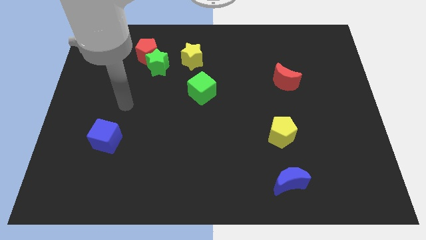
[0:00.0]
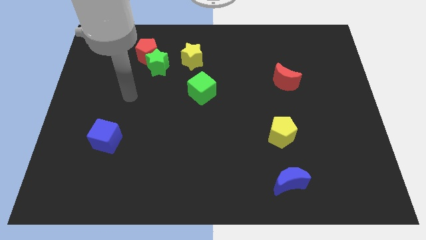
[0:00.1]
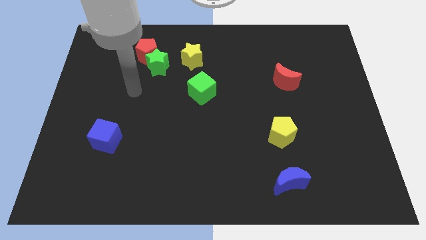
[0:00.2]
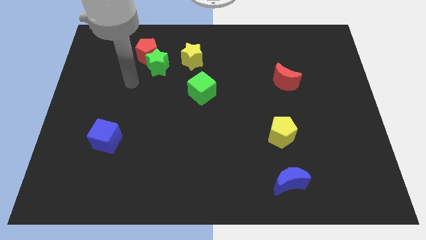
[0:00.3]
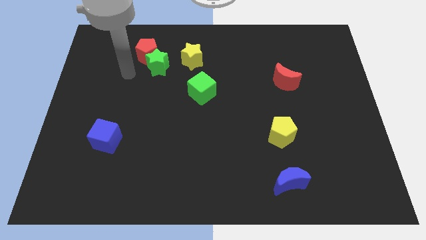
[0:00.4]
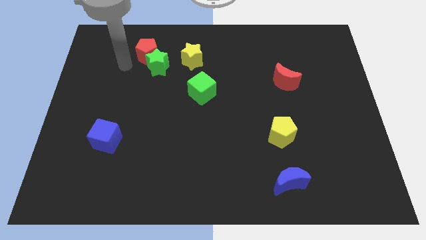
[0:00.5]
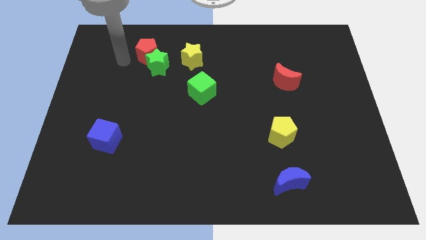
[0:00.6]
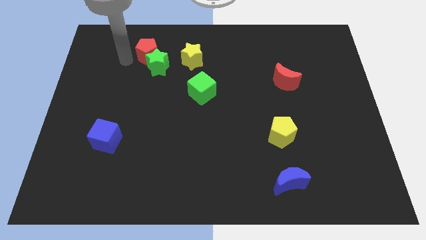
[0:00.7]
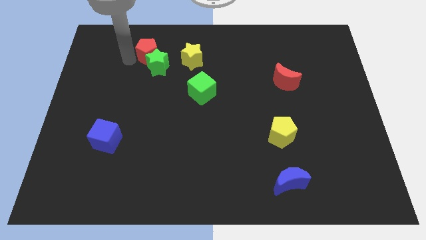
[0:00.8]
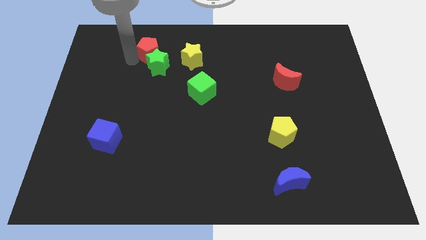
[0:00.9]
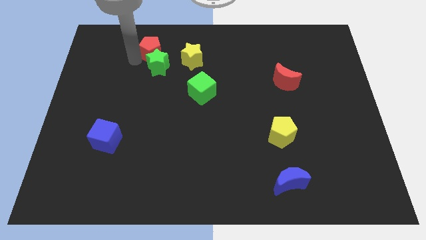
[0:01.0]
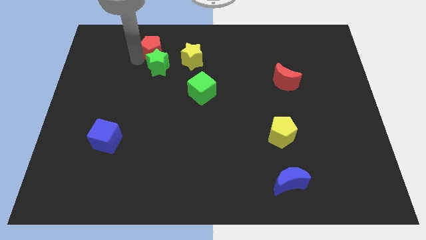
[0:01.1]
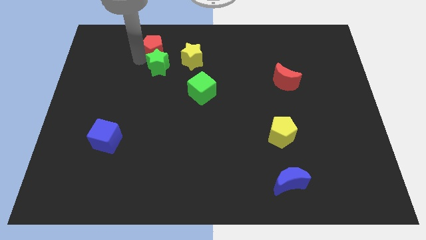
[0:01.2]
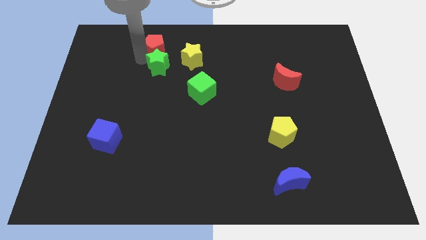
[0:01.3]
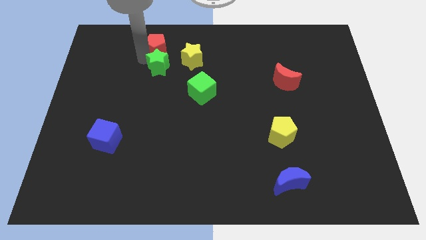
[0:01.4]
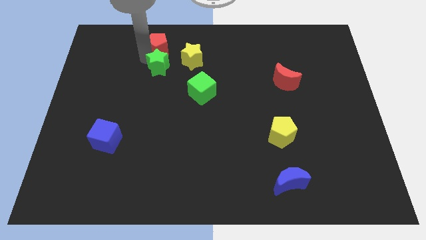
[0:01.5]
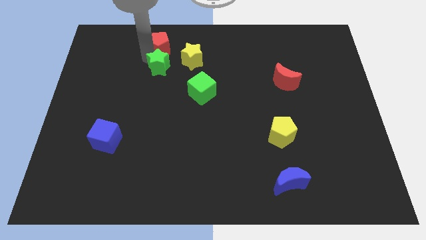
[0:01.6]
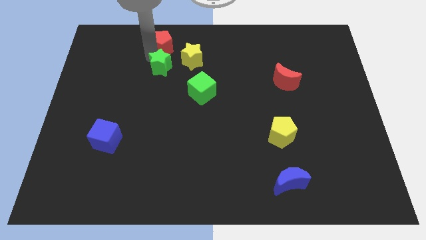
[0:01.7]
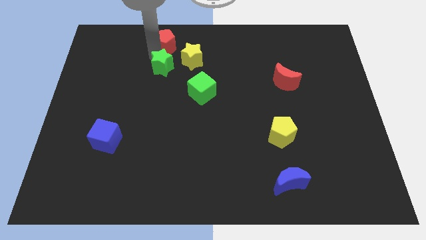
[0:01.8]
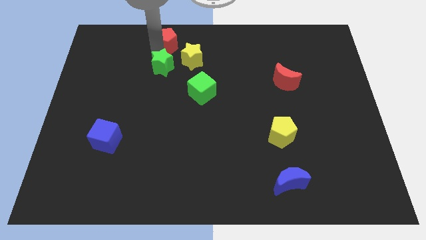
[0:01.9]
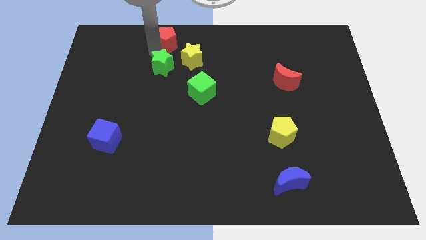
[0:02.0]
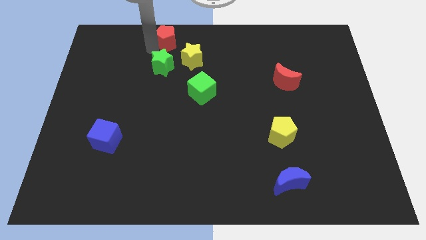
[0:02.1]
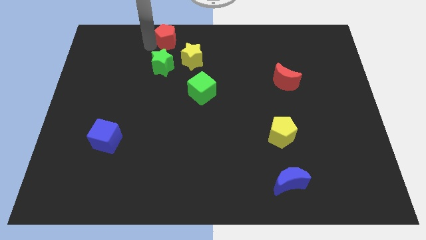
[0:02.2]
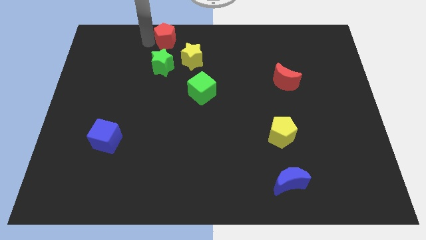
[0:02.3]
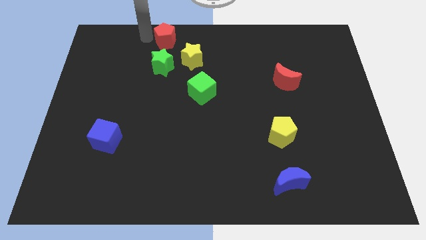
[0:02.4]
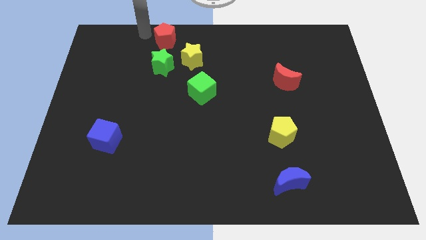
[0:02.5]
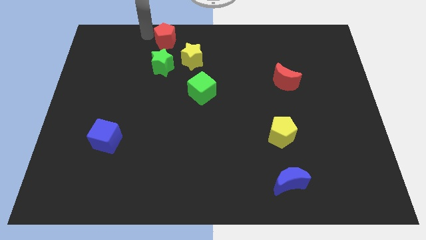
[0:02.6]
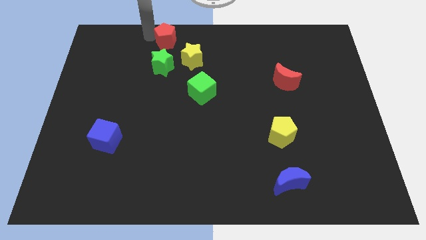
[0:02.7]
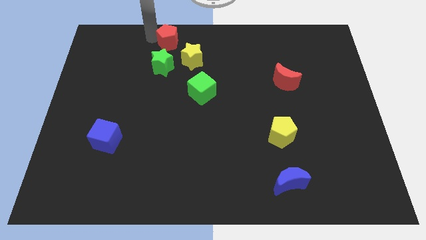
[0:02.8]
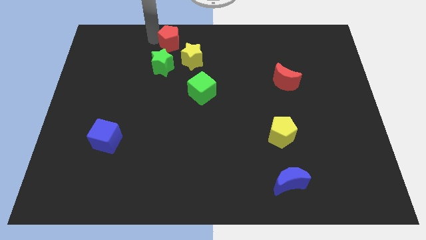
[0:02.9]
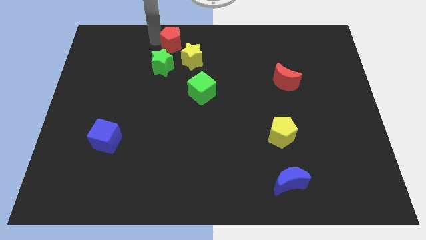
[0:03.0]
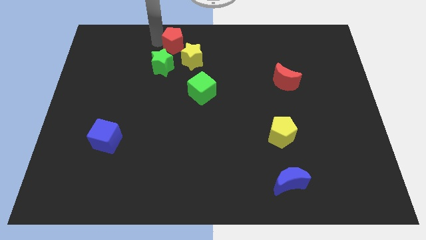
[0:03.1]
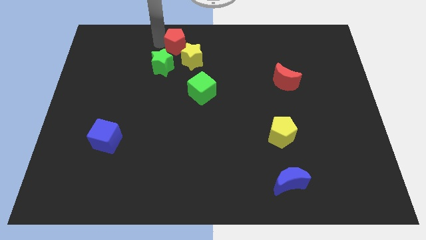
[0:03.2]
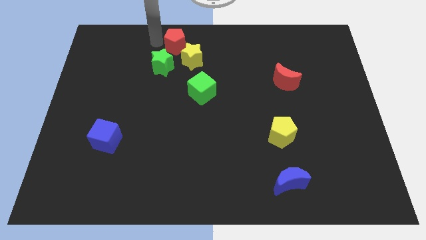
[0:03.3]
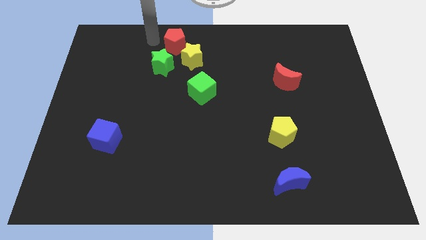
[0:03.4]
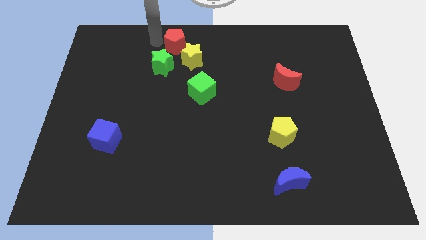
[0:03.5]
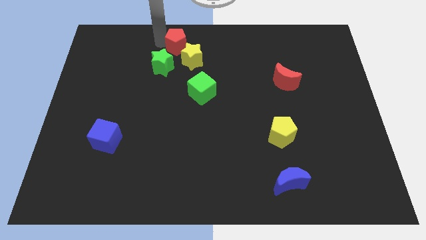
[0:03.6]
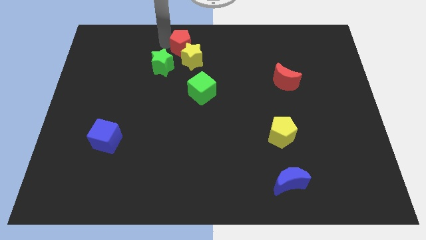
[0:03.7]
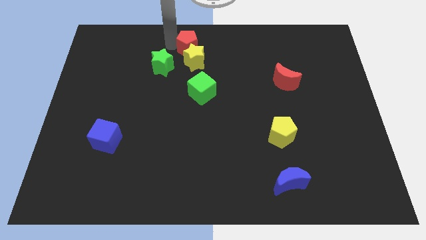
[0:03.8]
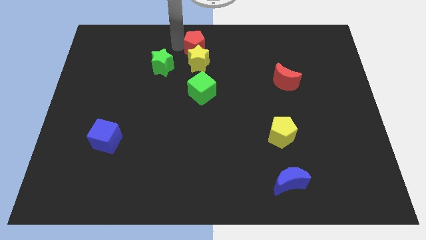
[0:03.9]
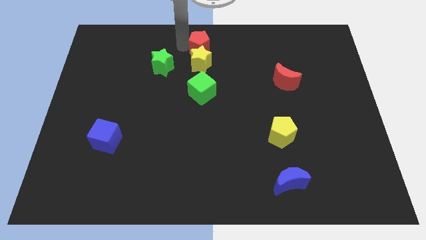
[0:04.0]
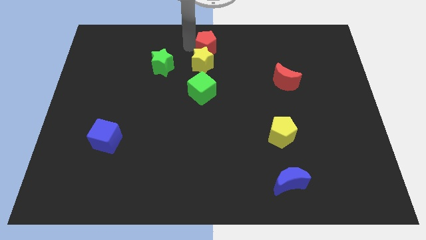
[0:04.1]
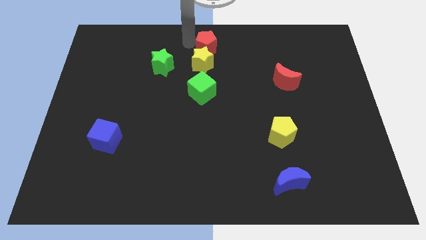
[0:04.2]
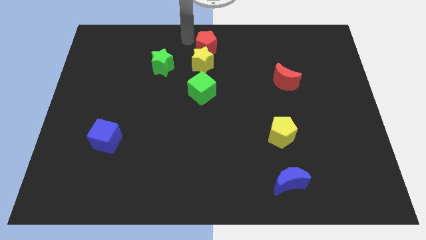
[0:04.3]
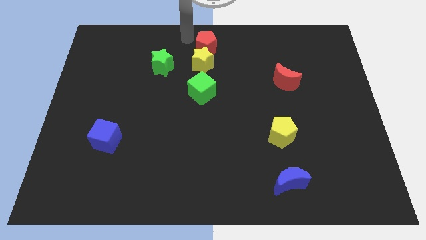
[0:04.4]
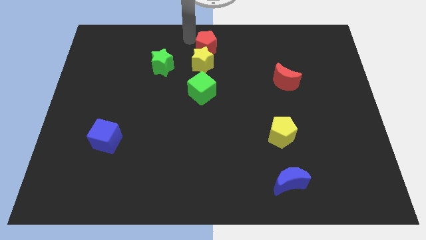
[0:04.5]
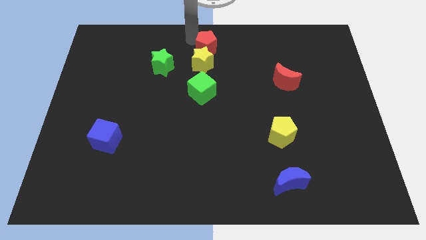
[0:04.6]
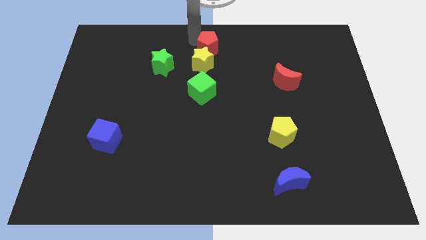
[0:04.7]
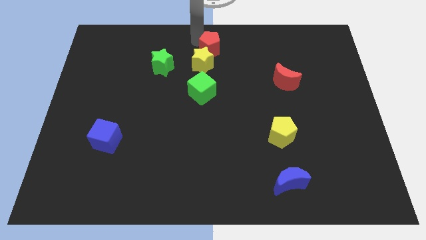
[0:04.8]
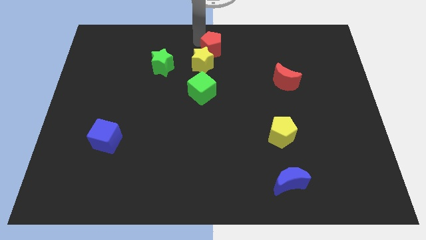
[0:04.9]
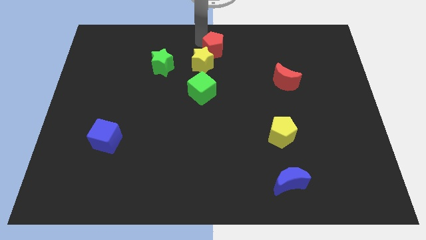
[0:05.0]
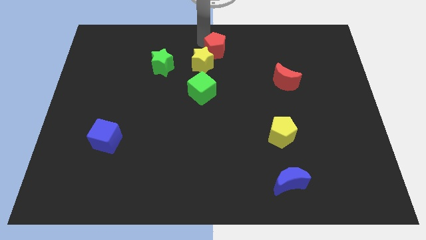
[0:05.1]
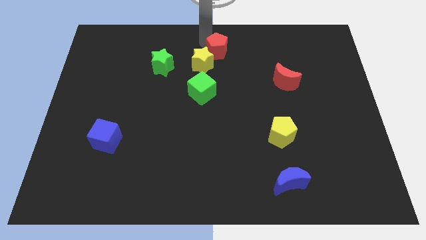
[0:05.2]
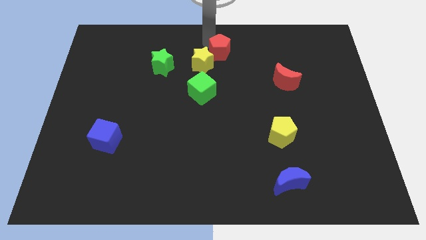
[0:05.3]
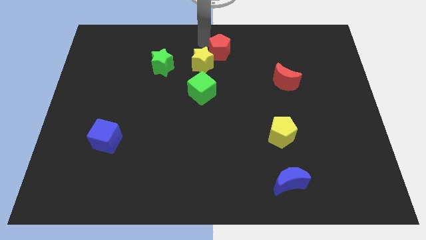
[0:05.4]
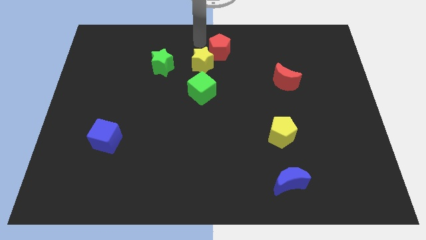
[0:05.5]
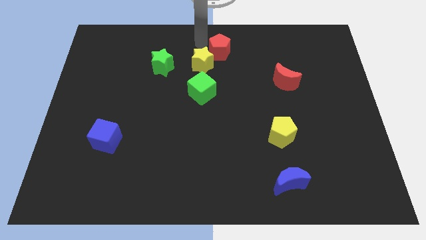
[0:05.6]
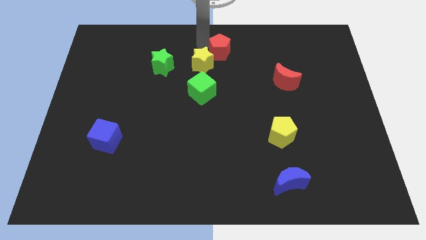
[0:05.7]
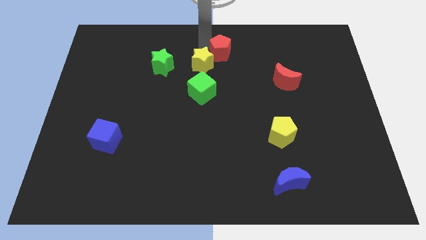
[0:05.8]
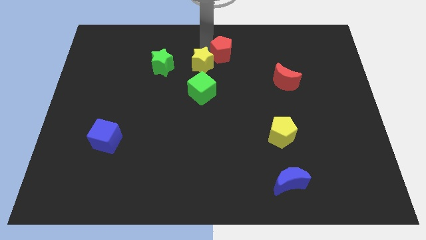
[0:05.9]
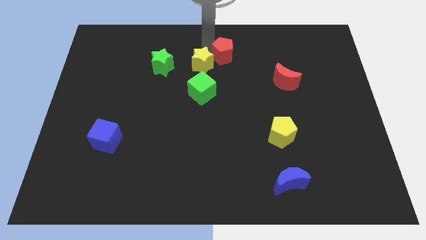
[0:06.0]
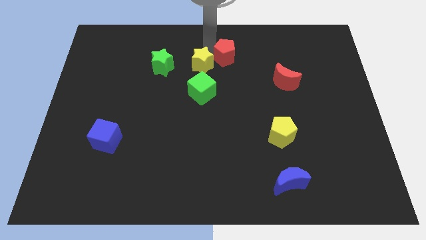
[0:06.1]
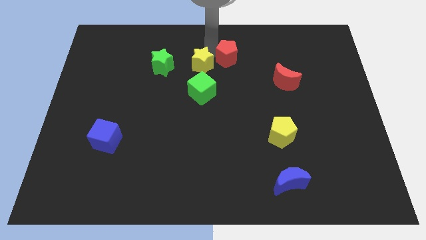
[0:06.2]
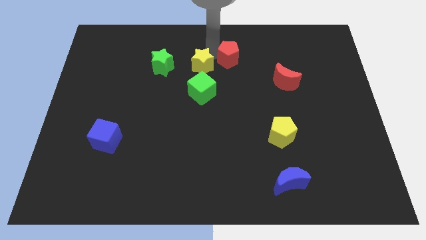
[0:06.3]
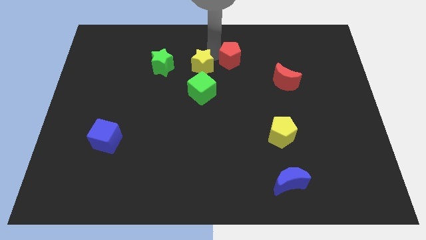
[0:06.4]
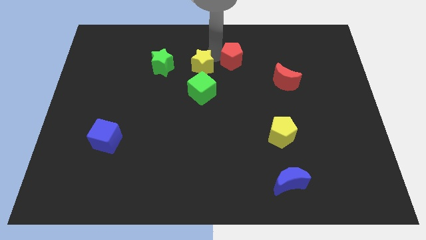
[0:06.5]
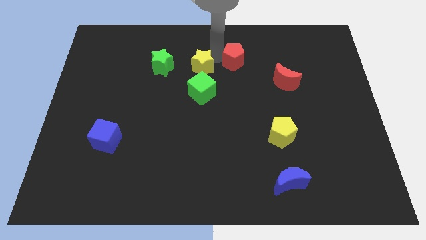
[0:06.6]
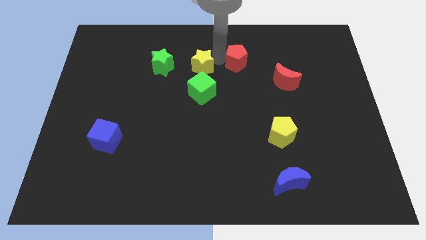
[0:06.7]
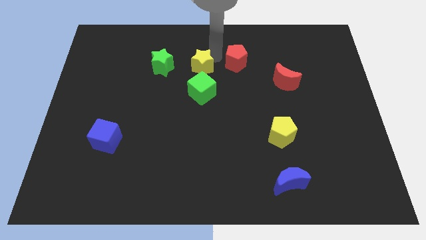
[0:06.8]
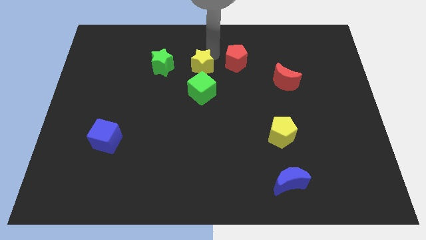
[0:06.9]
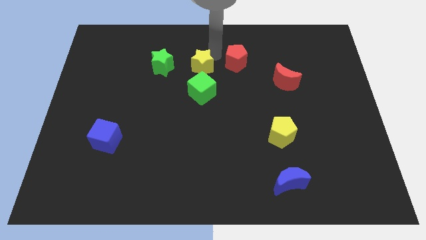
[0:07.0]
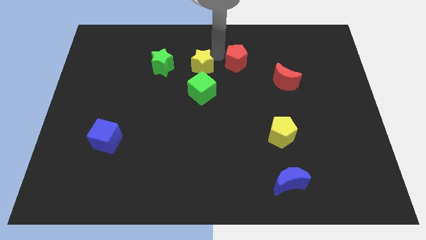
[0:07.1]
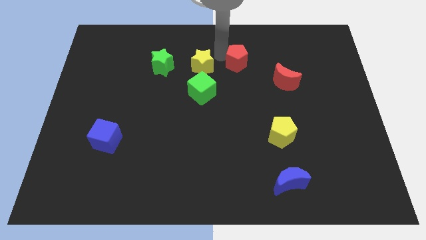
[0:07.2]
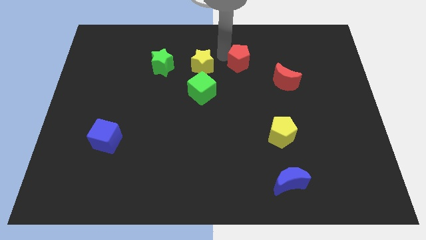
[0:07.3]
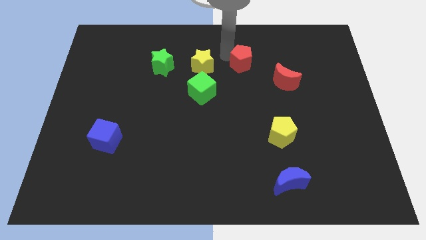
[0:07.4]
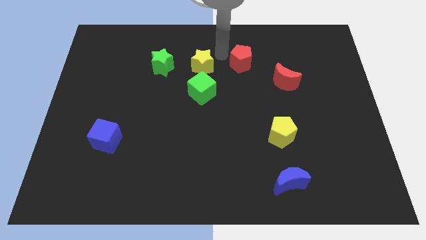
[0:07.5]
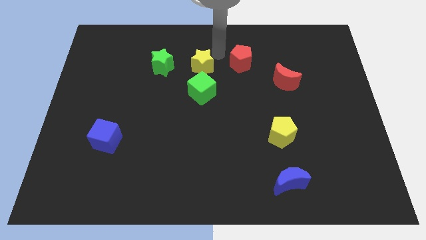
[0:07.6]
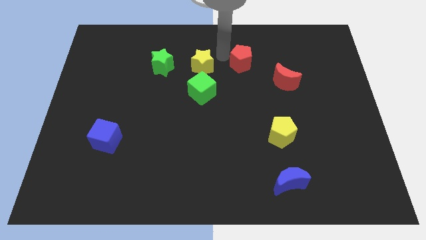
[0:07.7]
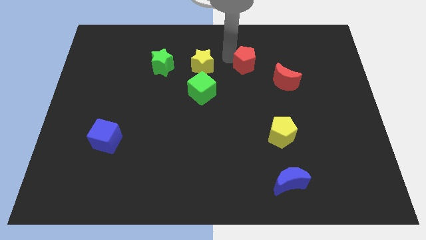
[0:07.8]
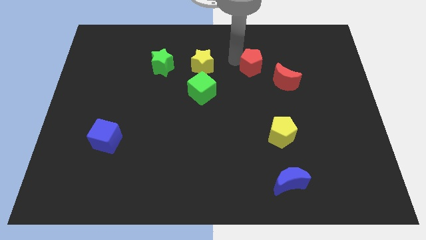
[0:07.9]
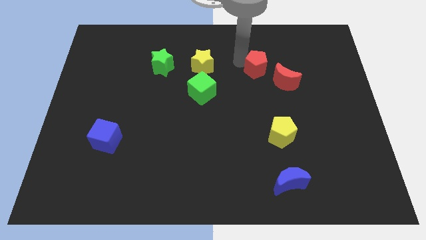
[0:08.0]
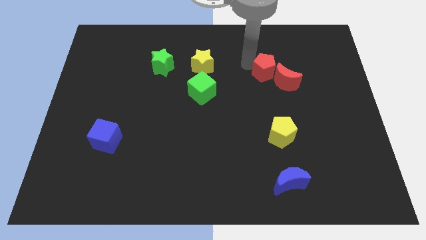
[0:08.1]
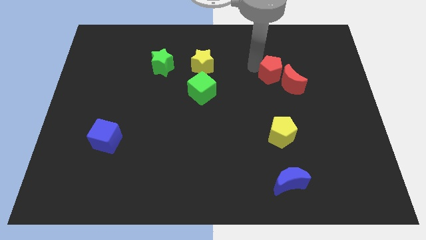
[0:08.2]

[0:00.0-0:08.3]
slide the red pentagon towards the red moon
